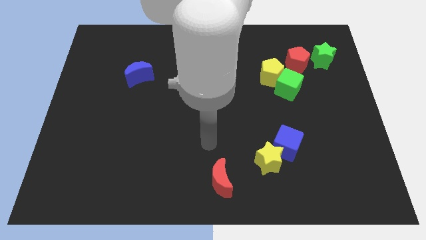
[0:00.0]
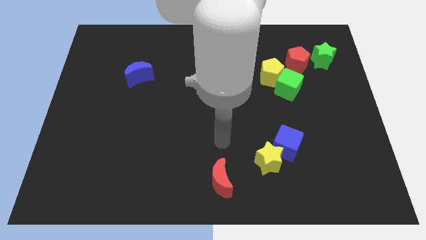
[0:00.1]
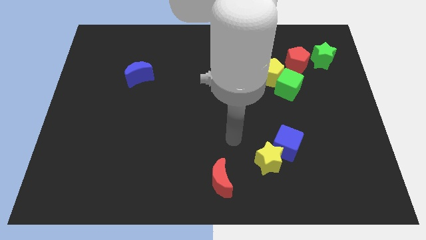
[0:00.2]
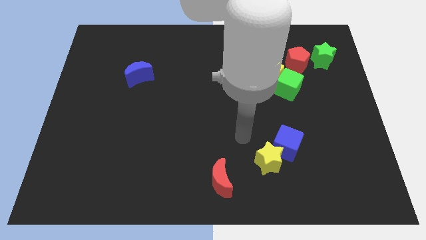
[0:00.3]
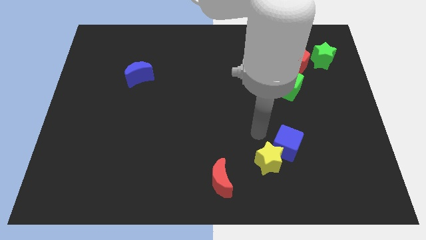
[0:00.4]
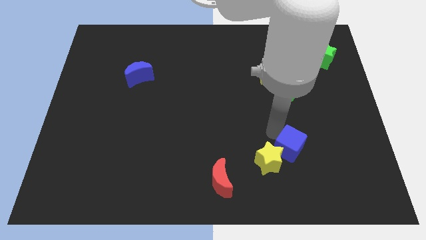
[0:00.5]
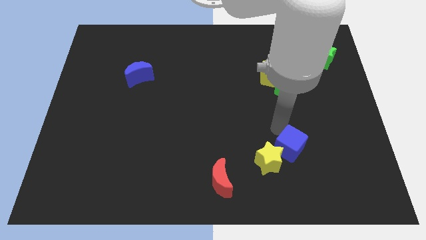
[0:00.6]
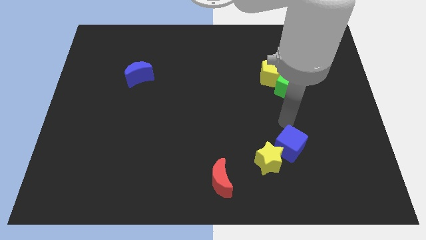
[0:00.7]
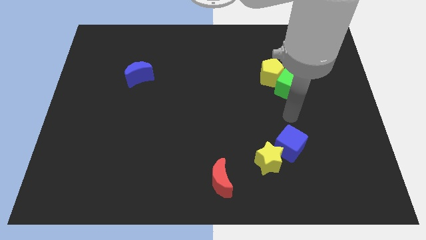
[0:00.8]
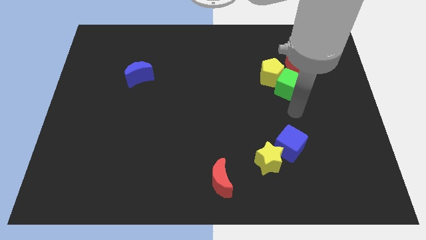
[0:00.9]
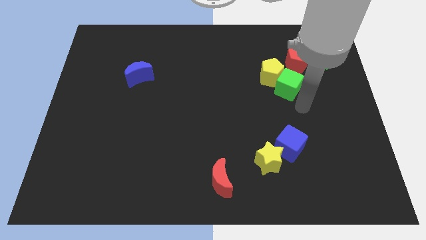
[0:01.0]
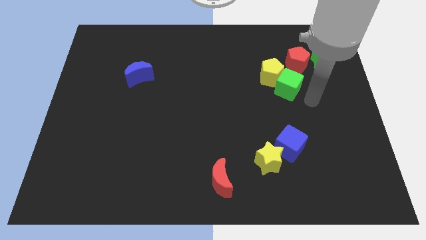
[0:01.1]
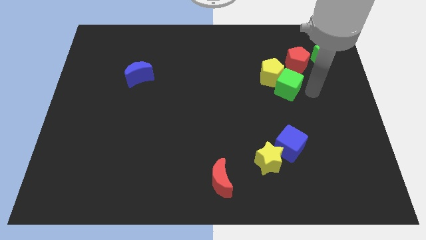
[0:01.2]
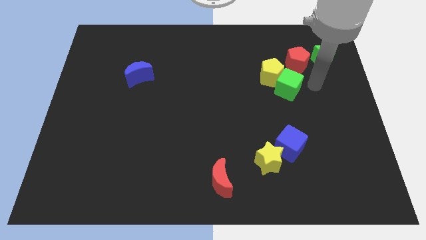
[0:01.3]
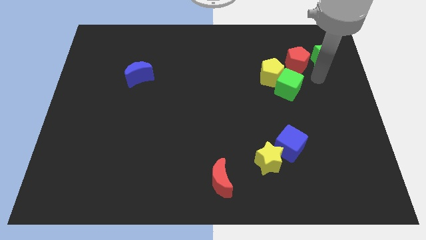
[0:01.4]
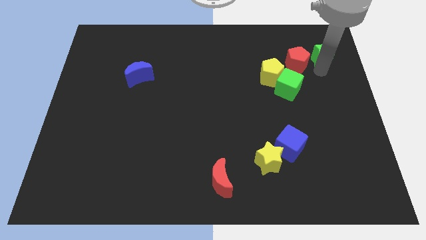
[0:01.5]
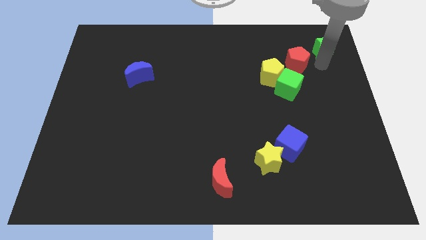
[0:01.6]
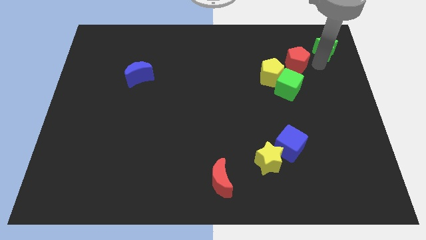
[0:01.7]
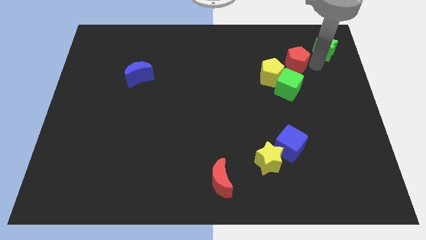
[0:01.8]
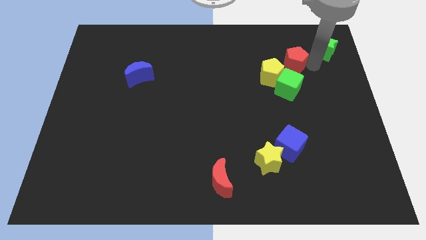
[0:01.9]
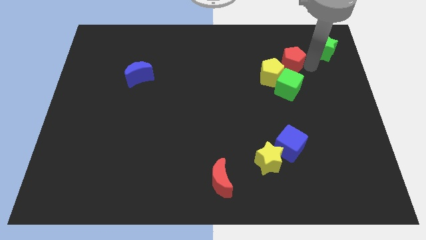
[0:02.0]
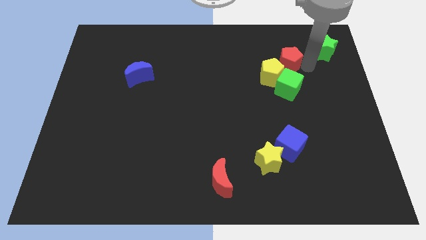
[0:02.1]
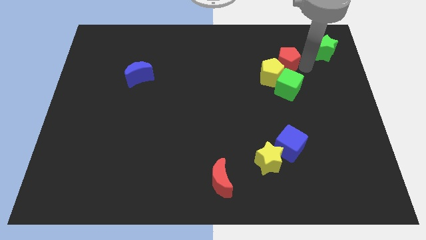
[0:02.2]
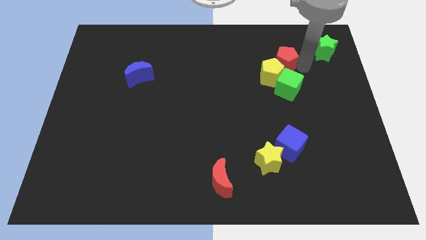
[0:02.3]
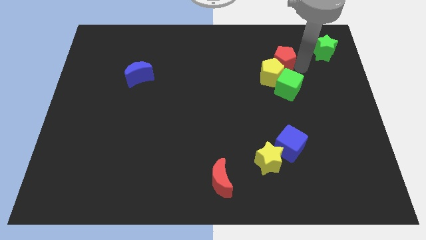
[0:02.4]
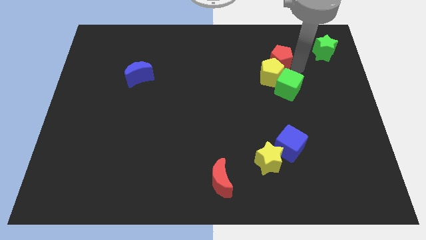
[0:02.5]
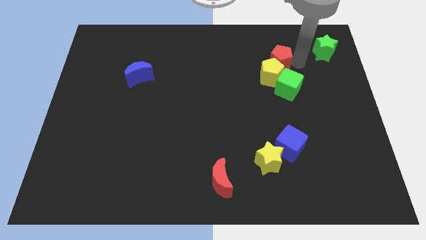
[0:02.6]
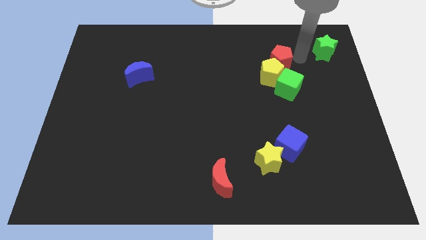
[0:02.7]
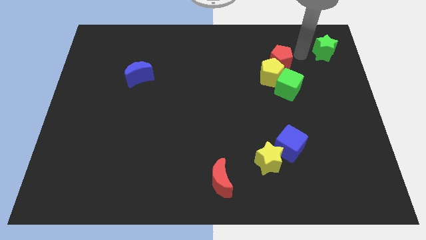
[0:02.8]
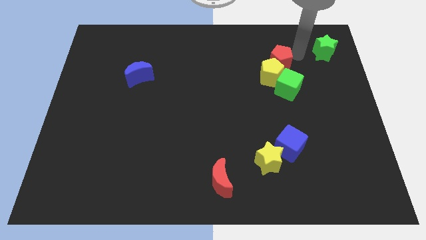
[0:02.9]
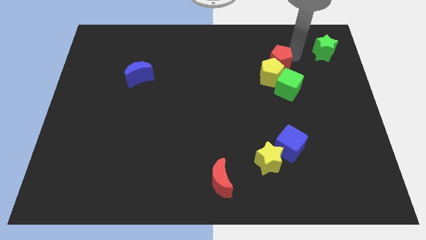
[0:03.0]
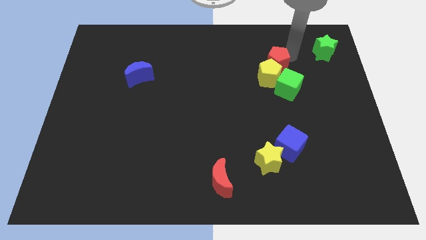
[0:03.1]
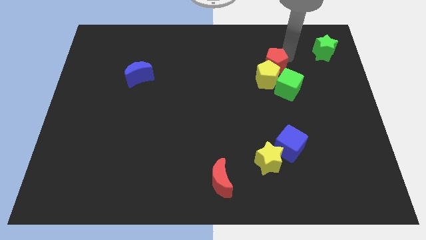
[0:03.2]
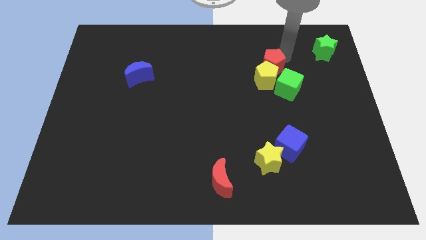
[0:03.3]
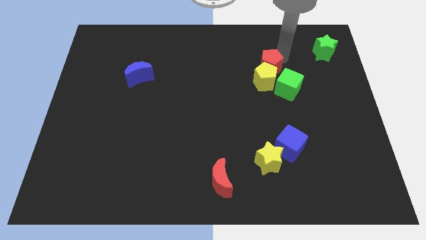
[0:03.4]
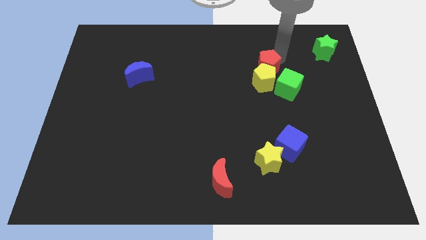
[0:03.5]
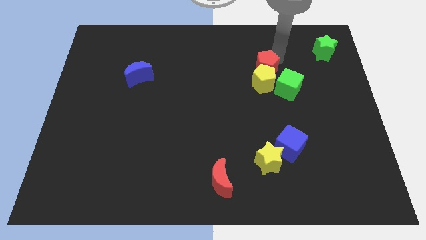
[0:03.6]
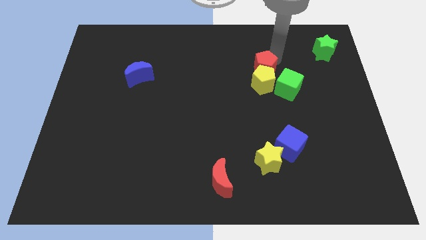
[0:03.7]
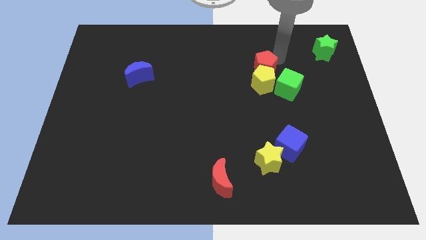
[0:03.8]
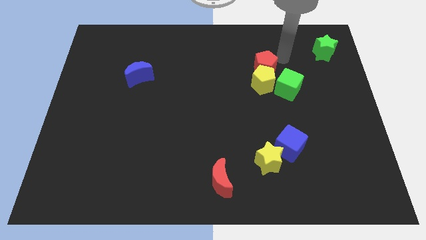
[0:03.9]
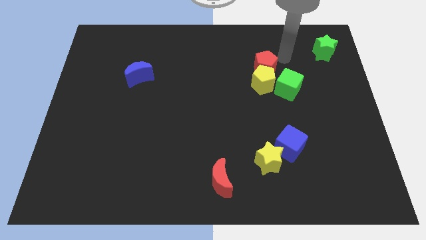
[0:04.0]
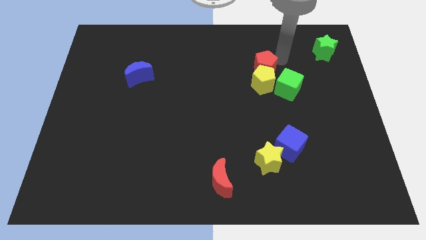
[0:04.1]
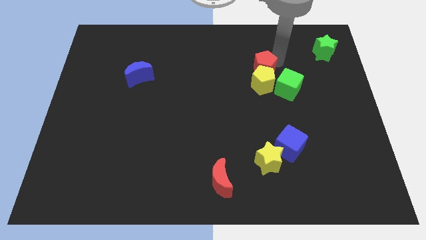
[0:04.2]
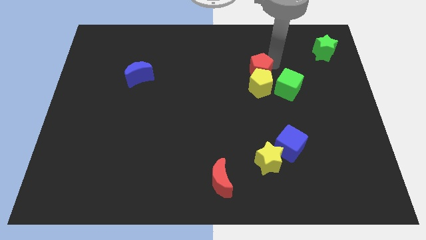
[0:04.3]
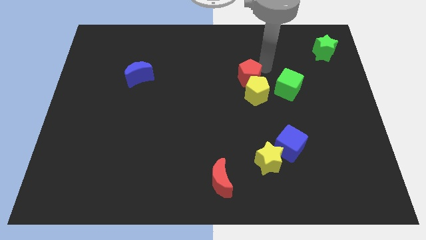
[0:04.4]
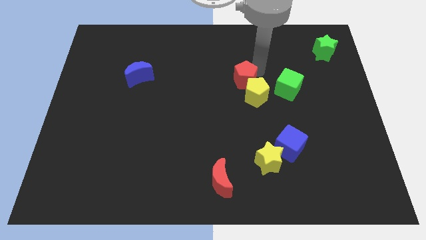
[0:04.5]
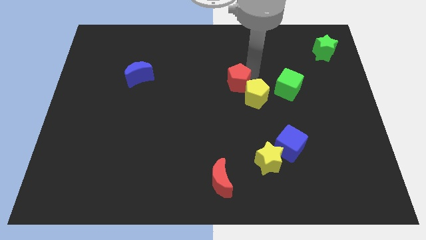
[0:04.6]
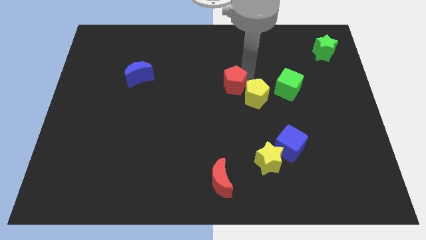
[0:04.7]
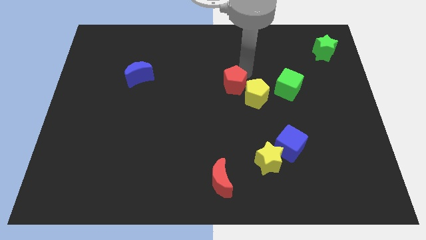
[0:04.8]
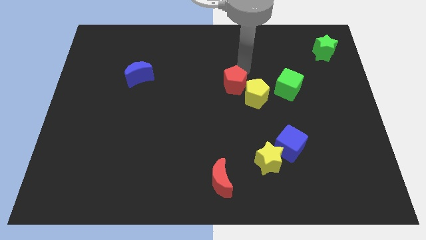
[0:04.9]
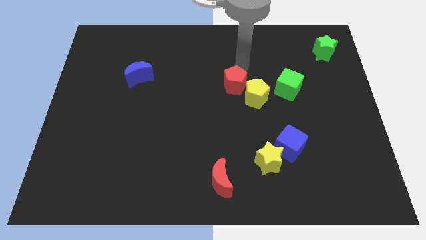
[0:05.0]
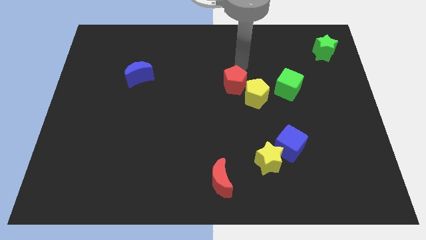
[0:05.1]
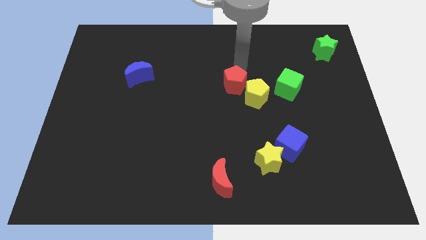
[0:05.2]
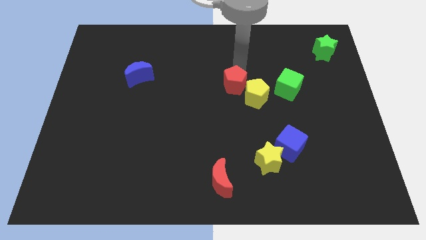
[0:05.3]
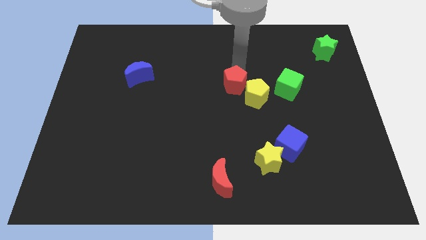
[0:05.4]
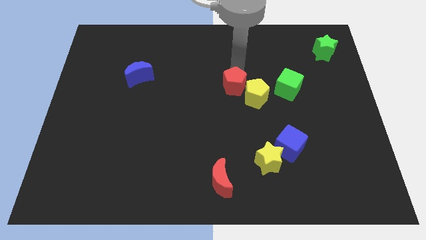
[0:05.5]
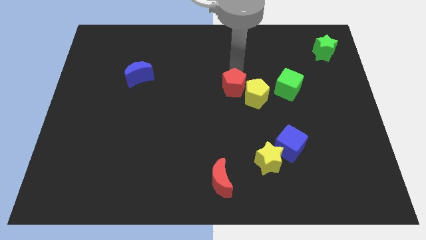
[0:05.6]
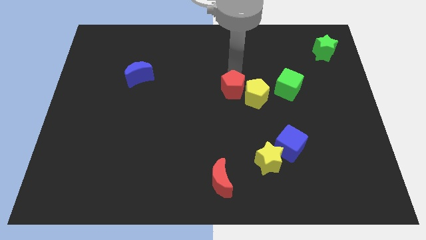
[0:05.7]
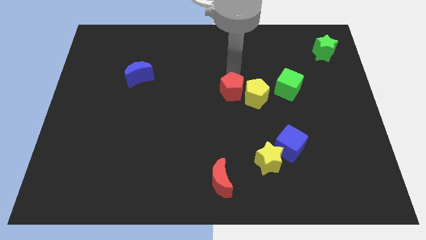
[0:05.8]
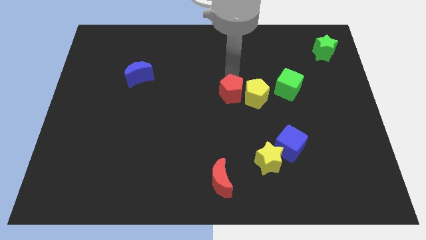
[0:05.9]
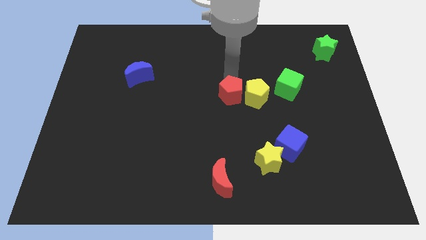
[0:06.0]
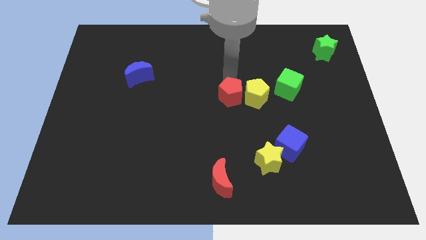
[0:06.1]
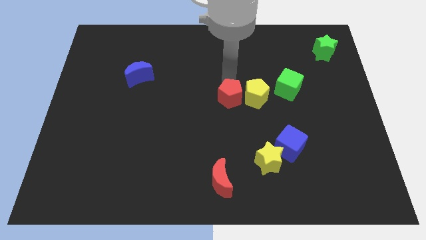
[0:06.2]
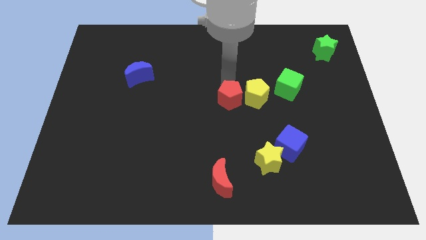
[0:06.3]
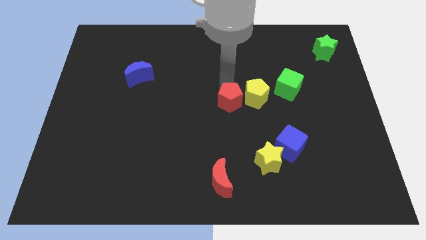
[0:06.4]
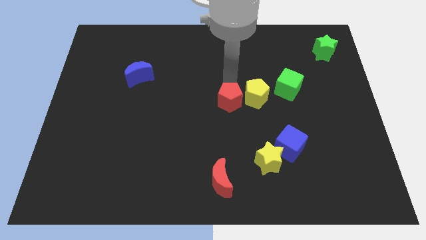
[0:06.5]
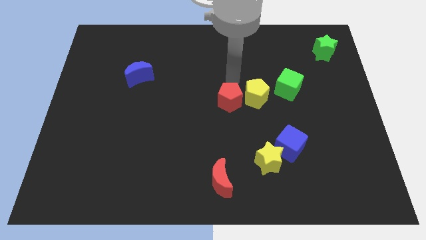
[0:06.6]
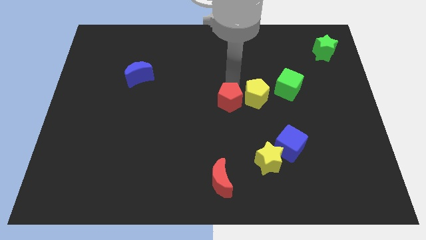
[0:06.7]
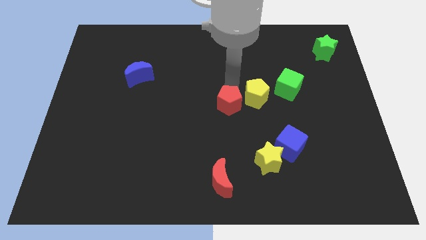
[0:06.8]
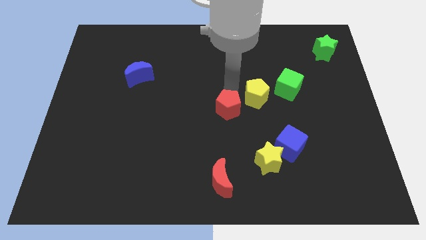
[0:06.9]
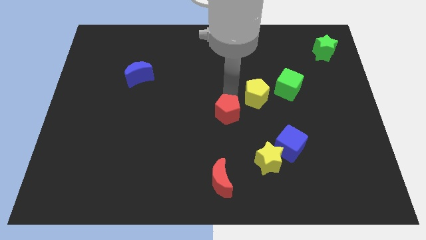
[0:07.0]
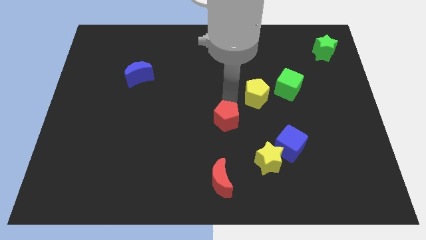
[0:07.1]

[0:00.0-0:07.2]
put the red pentagon above the red moon
